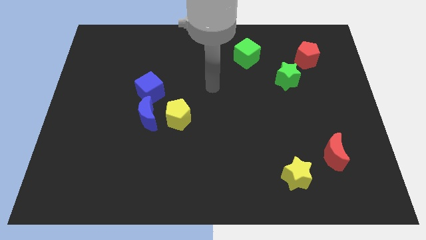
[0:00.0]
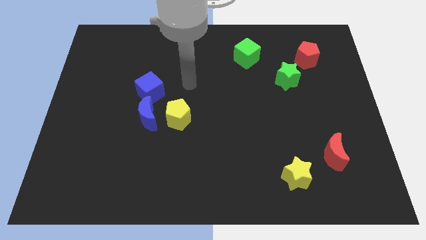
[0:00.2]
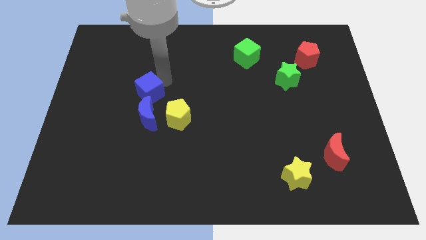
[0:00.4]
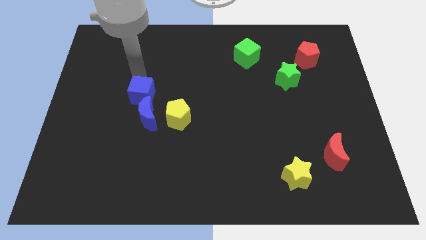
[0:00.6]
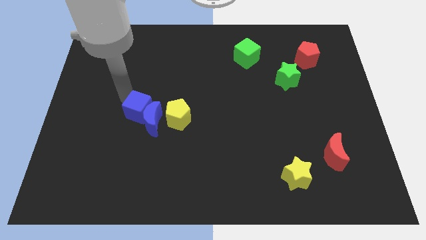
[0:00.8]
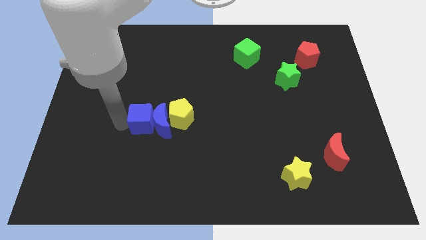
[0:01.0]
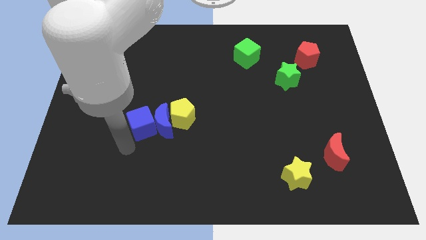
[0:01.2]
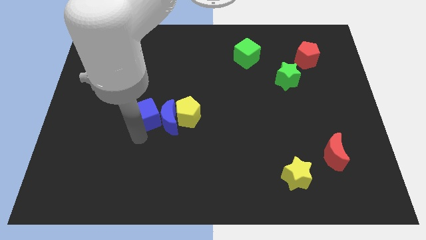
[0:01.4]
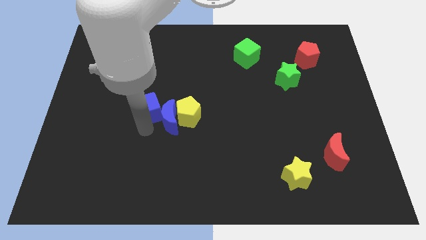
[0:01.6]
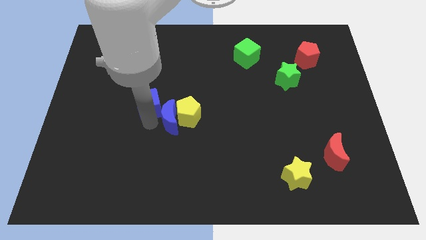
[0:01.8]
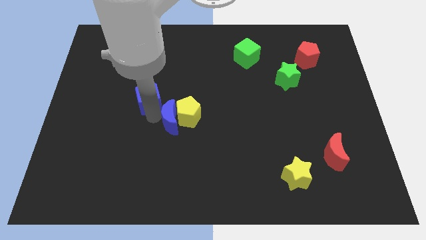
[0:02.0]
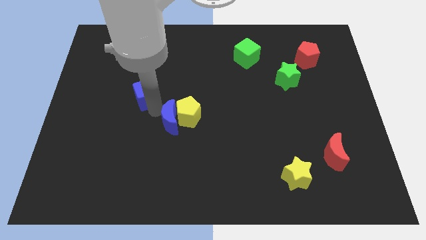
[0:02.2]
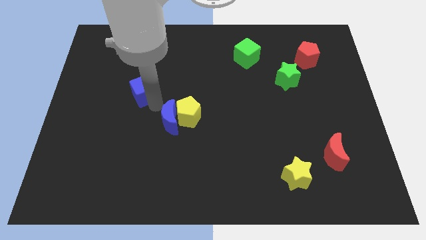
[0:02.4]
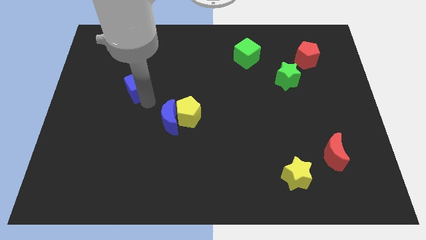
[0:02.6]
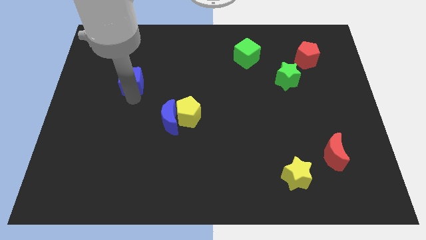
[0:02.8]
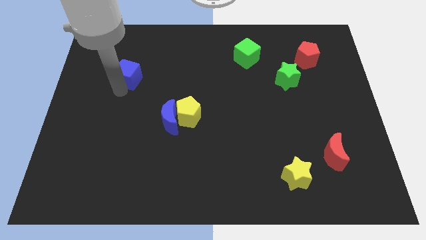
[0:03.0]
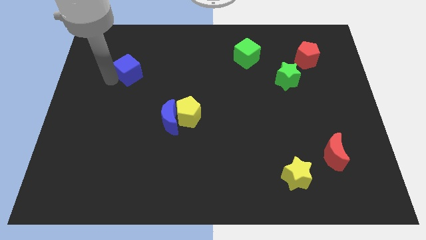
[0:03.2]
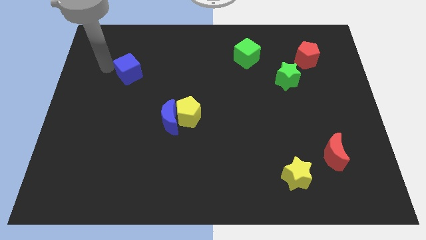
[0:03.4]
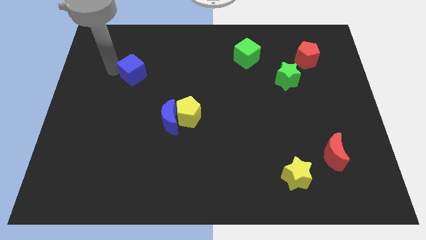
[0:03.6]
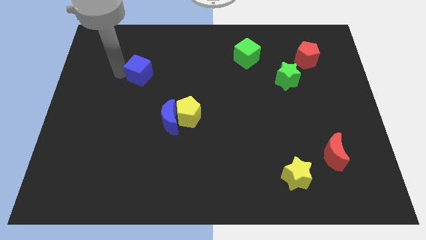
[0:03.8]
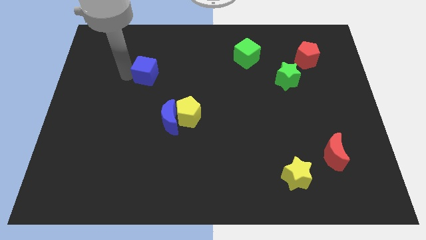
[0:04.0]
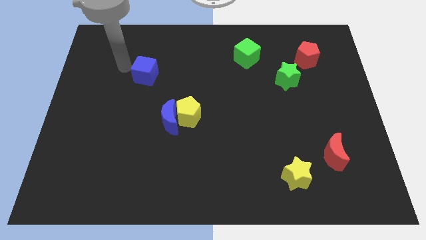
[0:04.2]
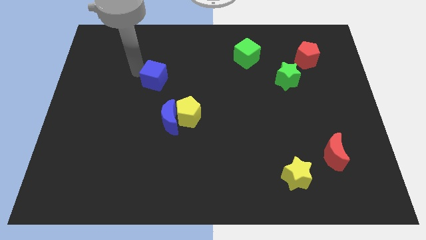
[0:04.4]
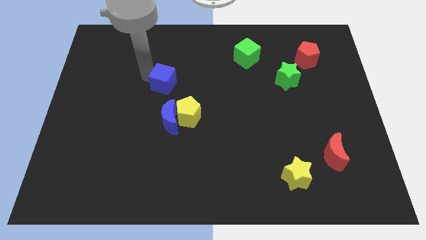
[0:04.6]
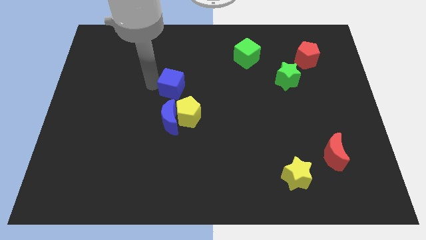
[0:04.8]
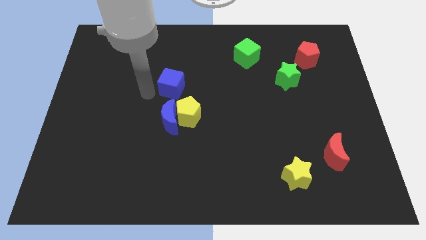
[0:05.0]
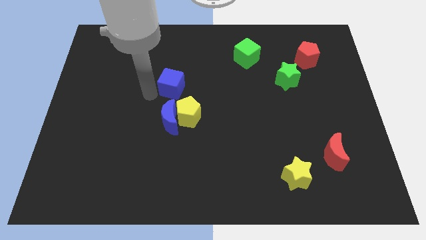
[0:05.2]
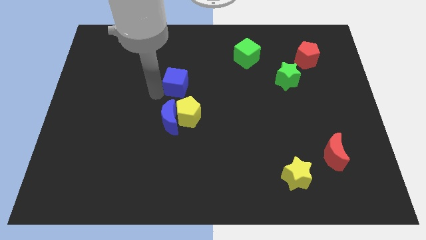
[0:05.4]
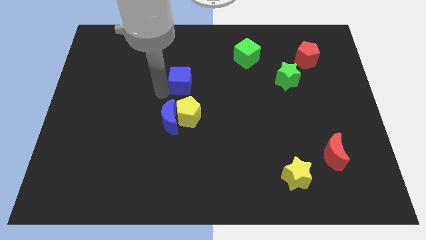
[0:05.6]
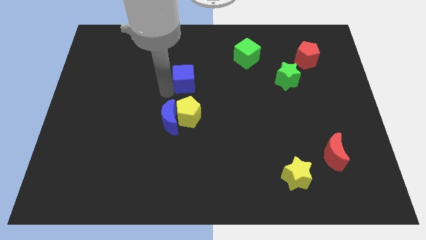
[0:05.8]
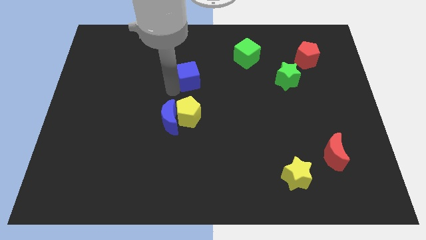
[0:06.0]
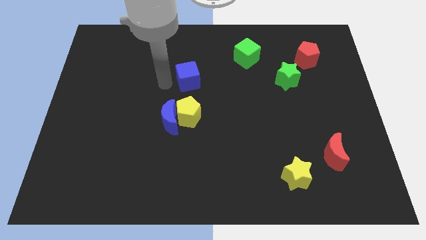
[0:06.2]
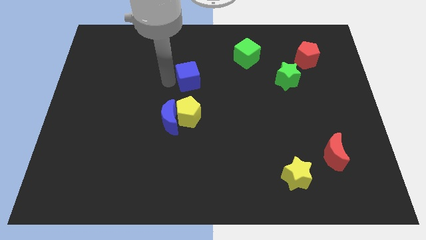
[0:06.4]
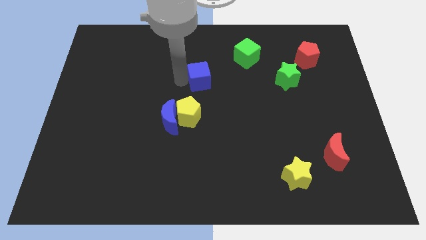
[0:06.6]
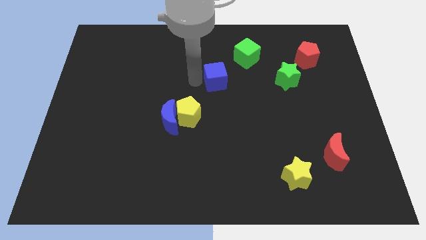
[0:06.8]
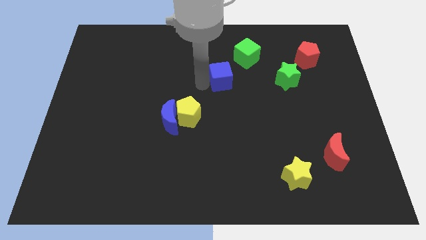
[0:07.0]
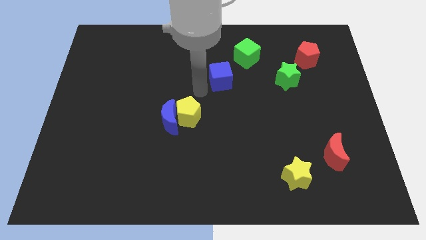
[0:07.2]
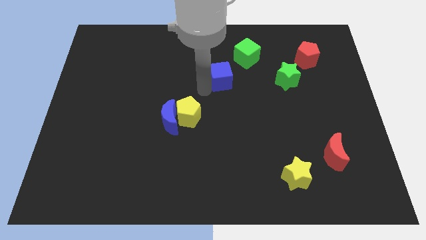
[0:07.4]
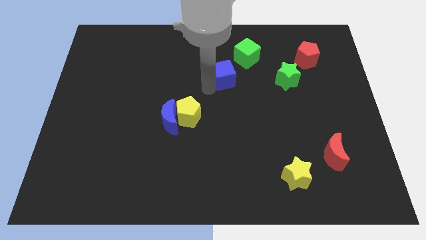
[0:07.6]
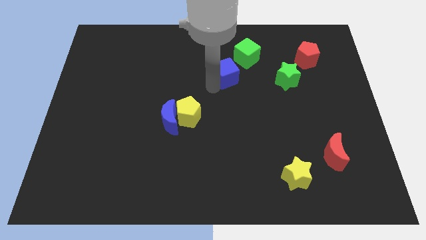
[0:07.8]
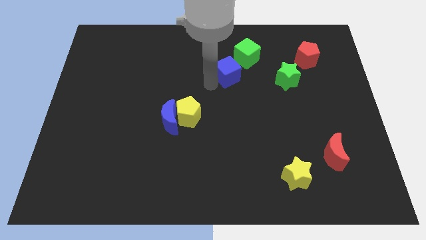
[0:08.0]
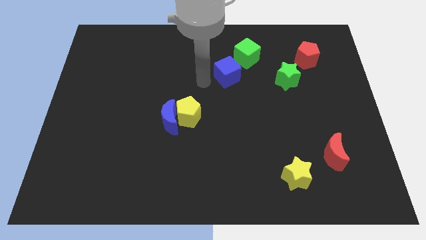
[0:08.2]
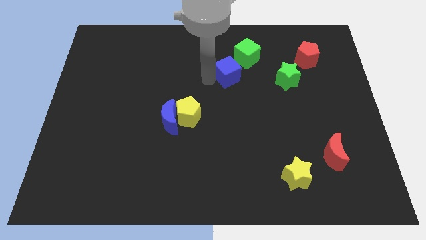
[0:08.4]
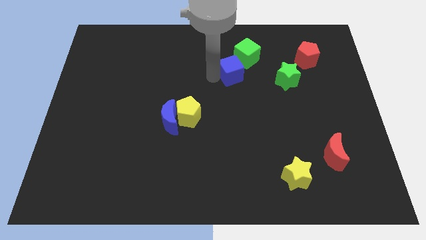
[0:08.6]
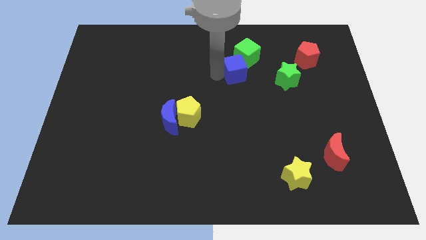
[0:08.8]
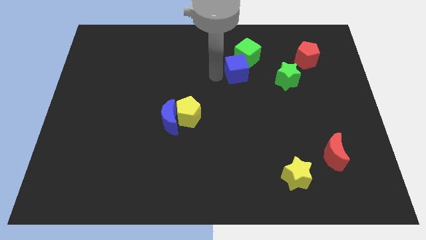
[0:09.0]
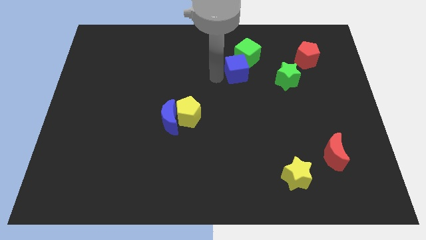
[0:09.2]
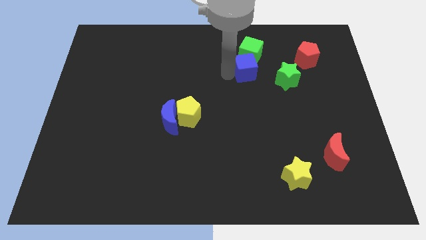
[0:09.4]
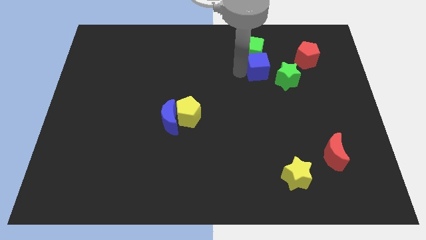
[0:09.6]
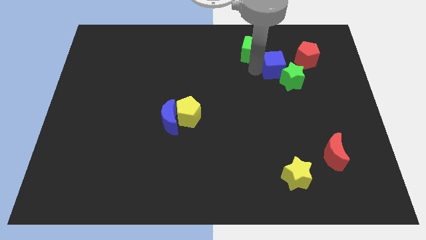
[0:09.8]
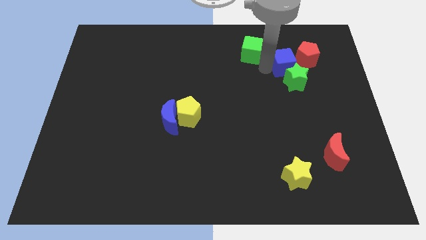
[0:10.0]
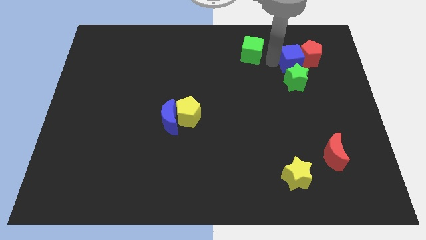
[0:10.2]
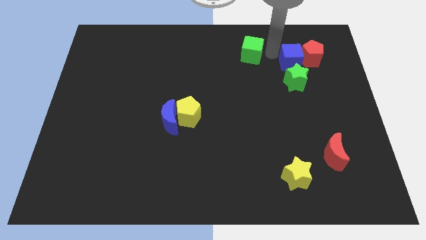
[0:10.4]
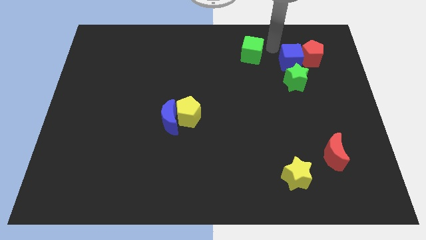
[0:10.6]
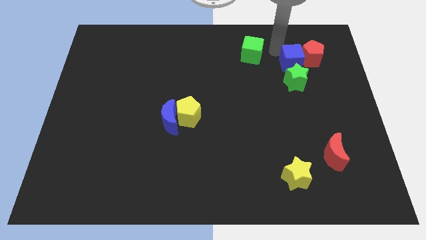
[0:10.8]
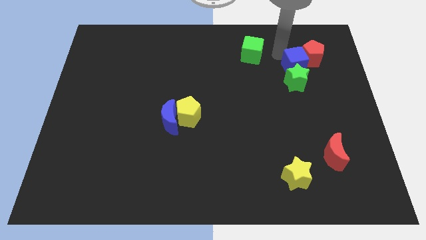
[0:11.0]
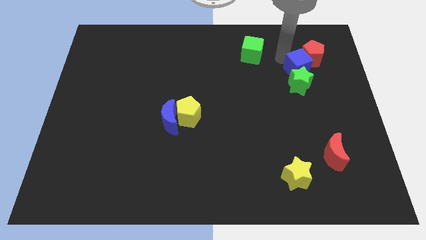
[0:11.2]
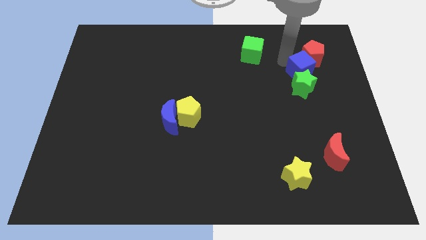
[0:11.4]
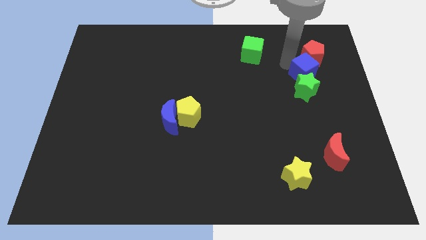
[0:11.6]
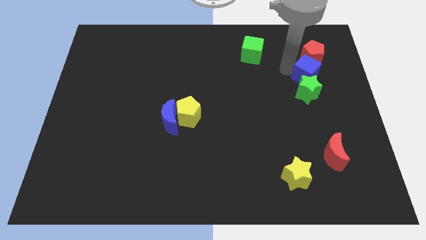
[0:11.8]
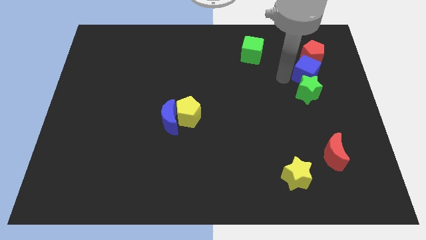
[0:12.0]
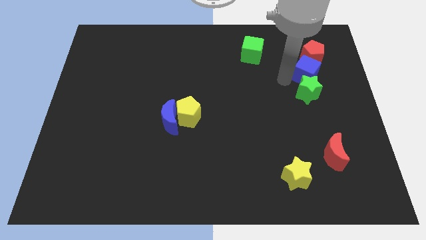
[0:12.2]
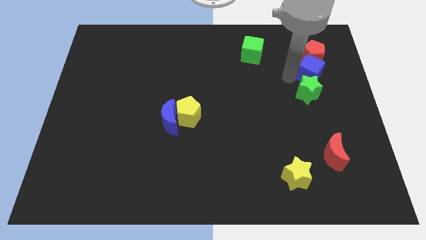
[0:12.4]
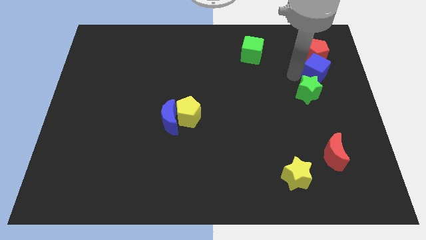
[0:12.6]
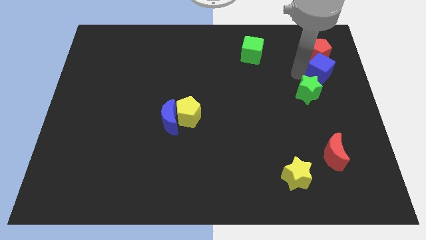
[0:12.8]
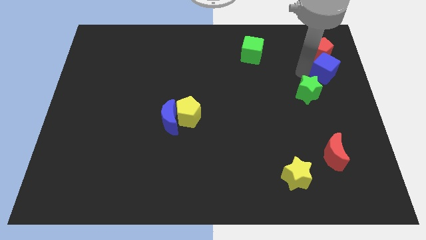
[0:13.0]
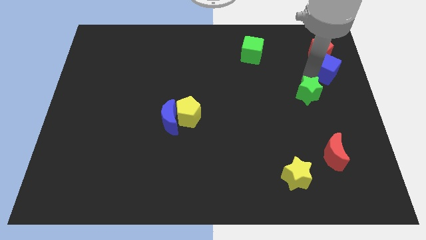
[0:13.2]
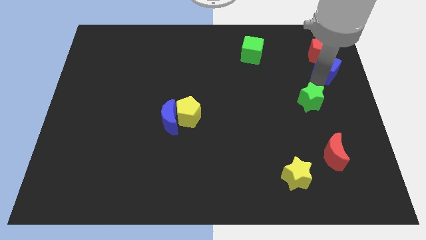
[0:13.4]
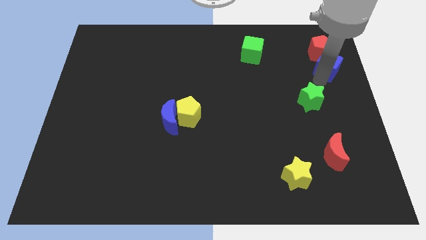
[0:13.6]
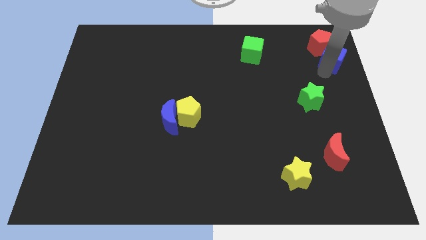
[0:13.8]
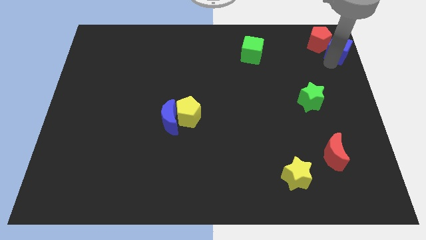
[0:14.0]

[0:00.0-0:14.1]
push the blue cube to the top right corner
